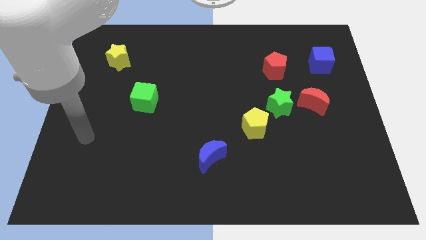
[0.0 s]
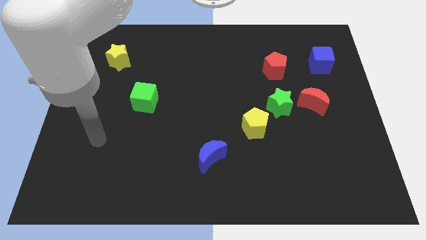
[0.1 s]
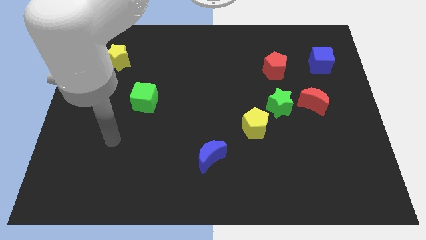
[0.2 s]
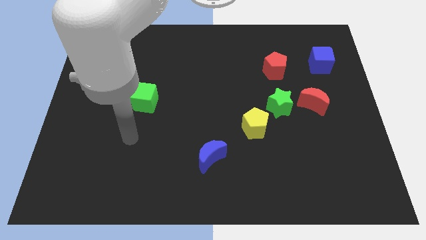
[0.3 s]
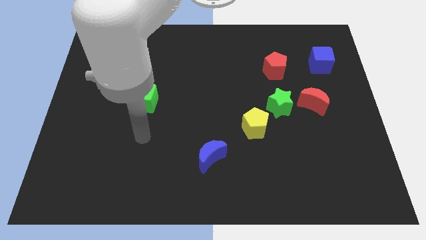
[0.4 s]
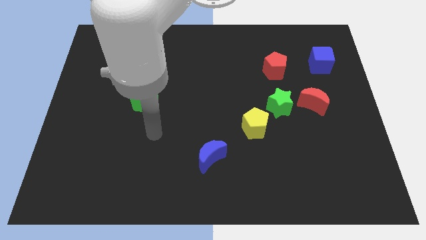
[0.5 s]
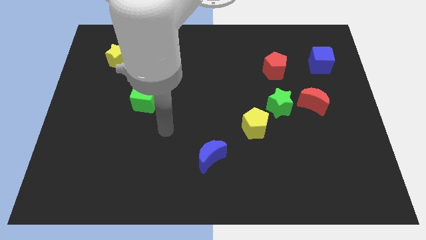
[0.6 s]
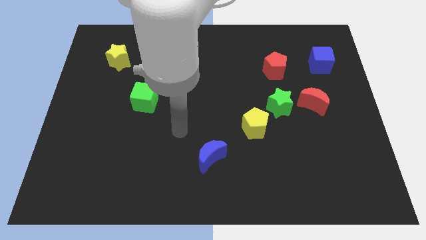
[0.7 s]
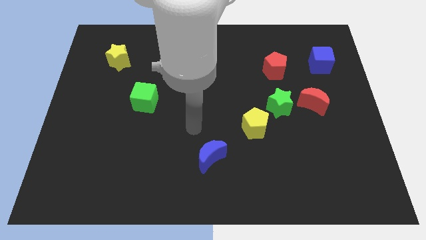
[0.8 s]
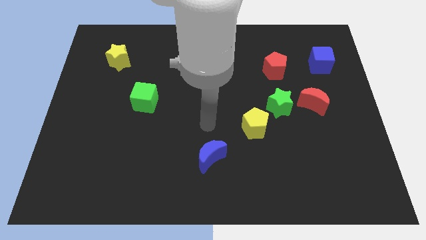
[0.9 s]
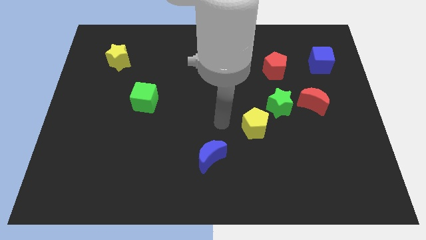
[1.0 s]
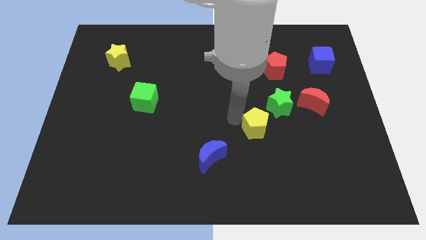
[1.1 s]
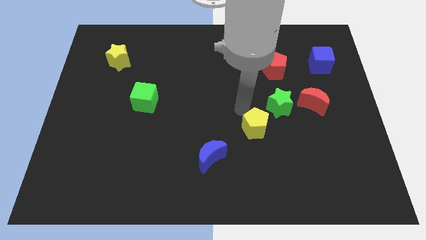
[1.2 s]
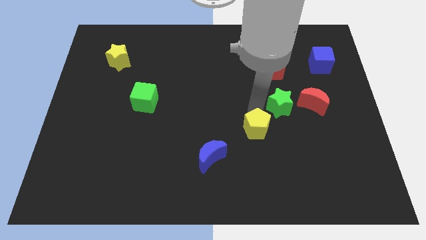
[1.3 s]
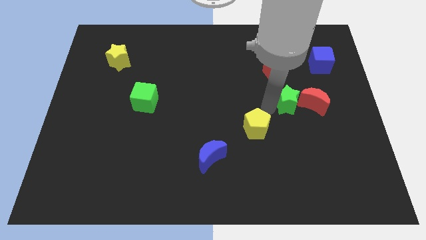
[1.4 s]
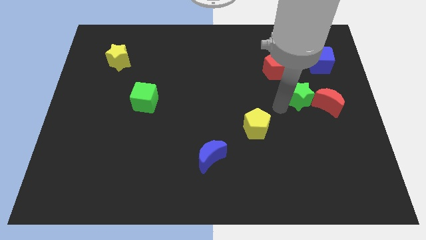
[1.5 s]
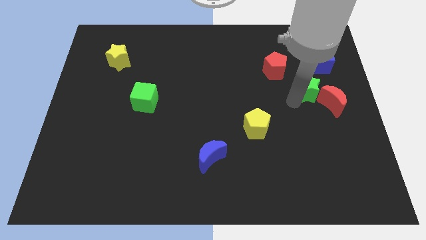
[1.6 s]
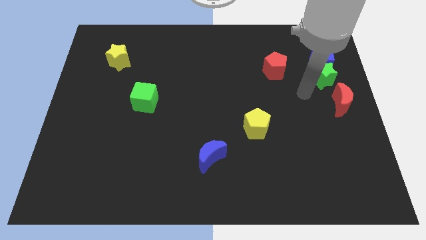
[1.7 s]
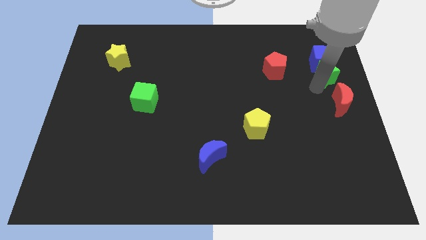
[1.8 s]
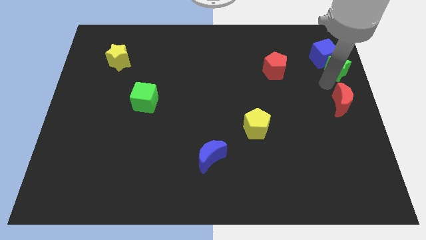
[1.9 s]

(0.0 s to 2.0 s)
move the red moon away from the green star

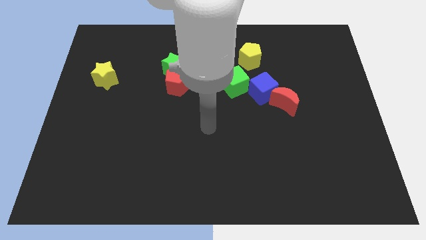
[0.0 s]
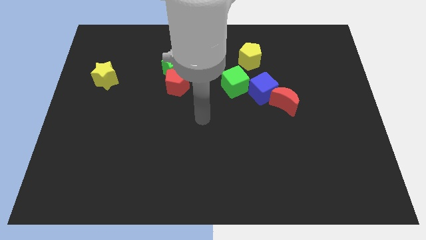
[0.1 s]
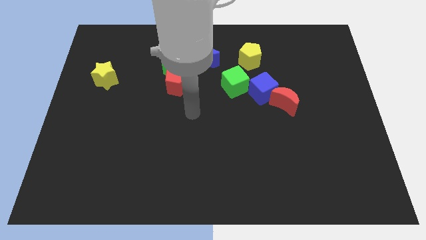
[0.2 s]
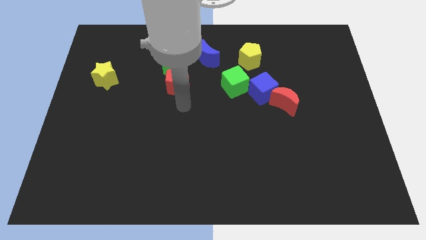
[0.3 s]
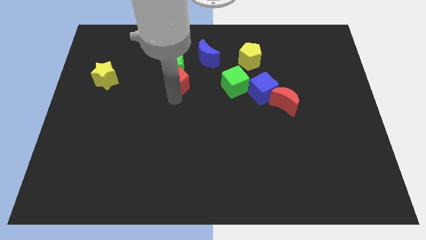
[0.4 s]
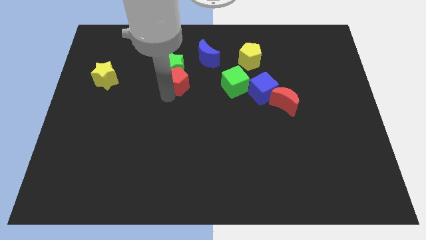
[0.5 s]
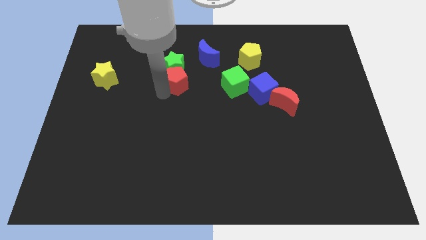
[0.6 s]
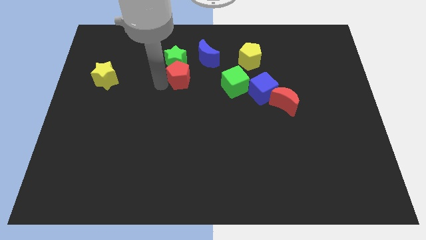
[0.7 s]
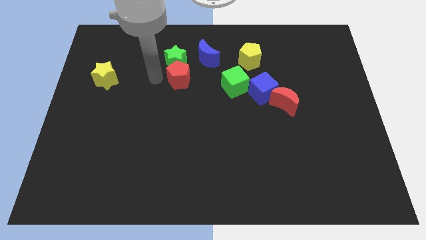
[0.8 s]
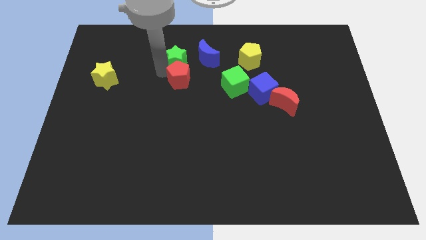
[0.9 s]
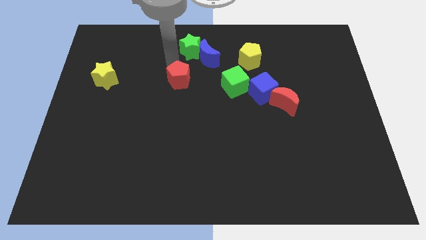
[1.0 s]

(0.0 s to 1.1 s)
pull the red pentagon apart from the green star

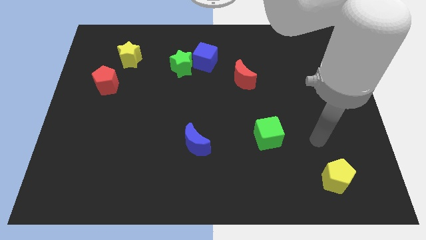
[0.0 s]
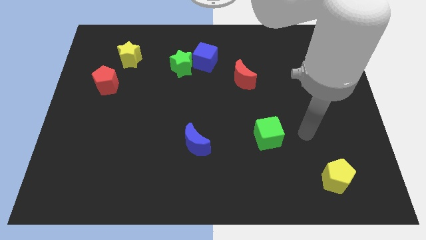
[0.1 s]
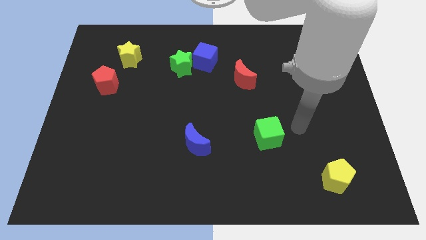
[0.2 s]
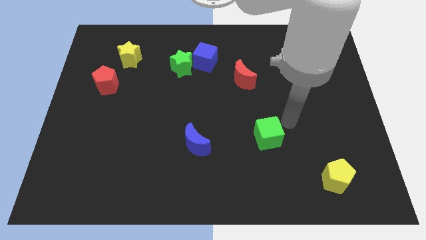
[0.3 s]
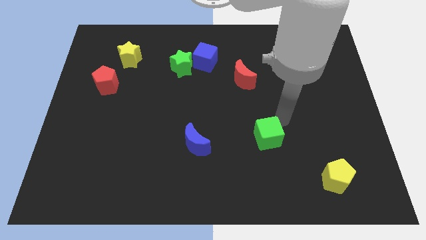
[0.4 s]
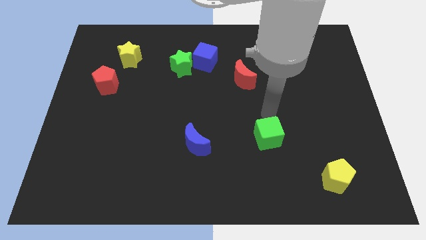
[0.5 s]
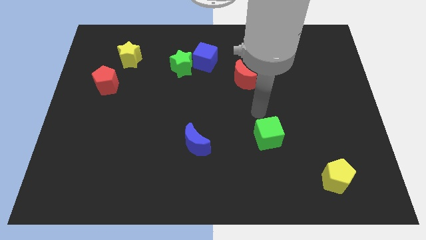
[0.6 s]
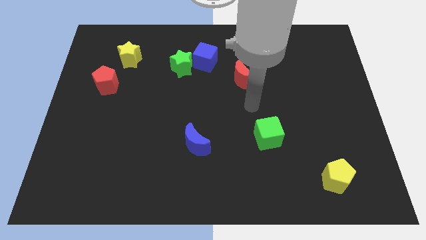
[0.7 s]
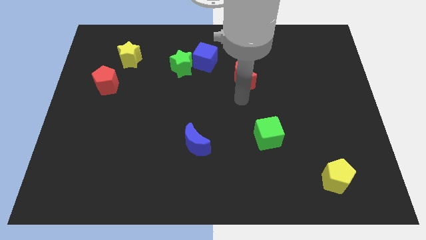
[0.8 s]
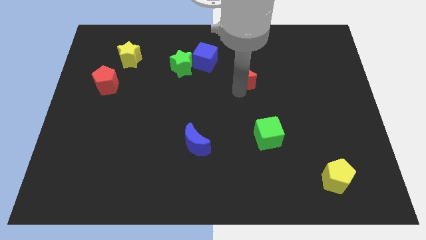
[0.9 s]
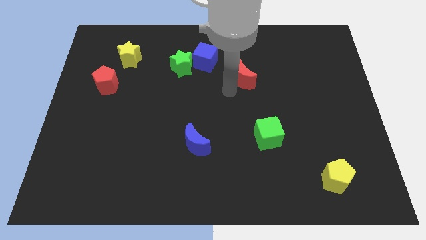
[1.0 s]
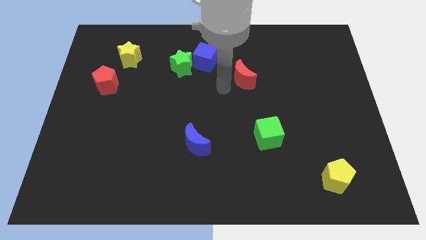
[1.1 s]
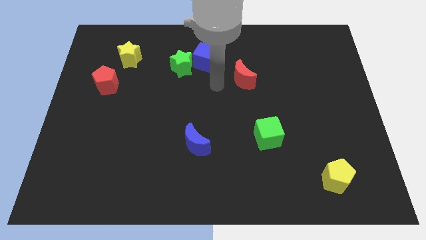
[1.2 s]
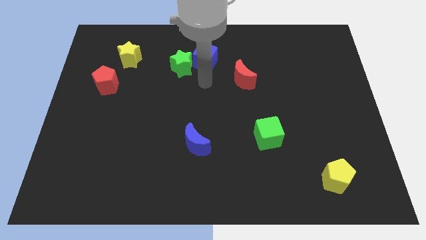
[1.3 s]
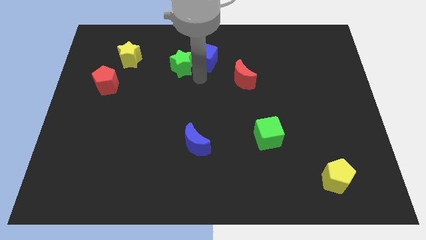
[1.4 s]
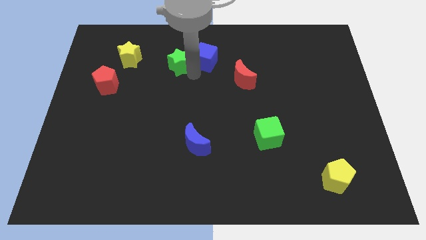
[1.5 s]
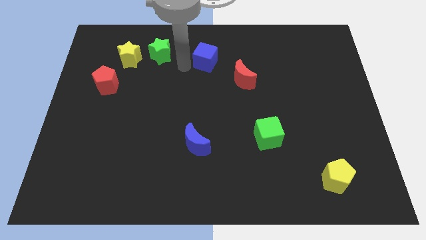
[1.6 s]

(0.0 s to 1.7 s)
pull the blue cube apart from the green star

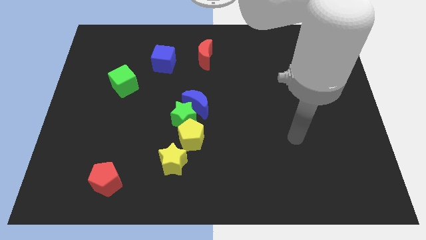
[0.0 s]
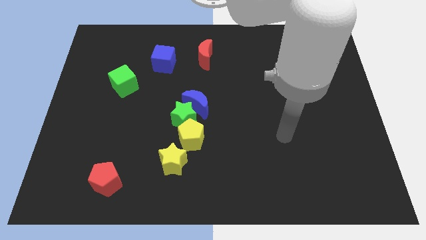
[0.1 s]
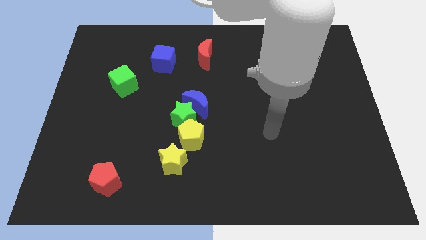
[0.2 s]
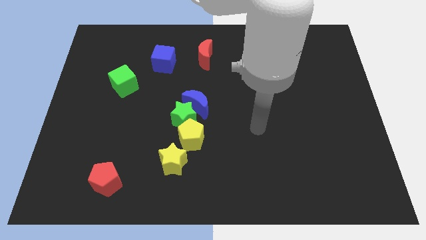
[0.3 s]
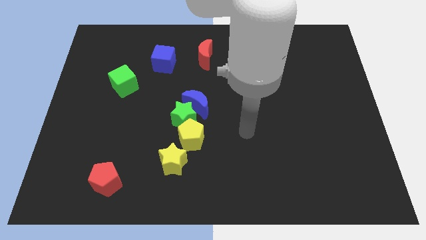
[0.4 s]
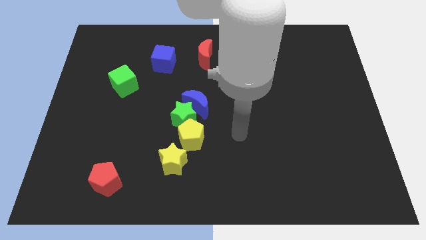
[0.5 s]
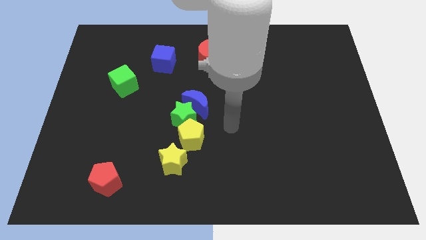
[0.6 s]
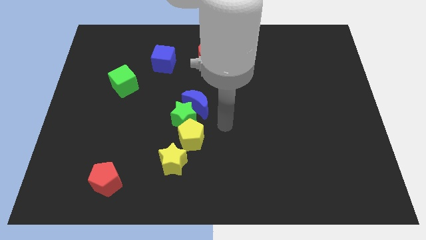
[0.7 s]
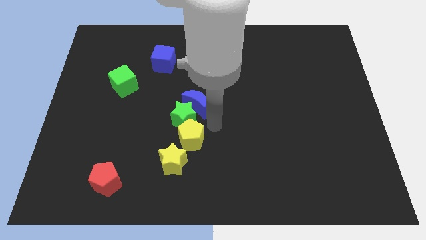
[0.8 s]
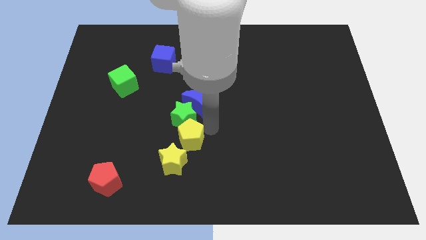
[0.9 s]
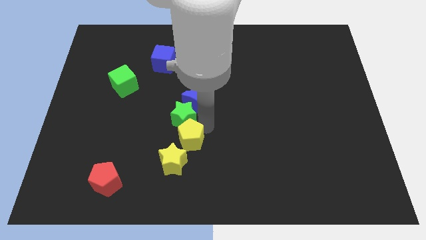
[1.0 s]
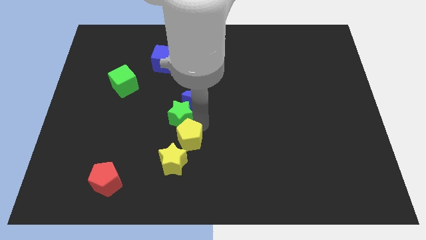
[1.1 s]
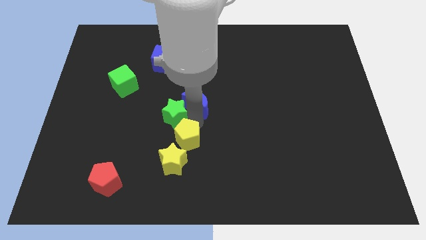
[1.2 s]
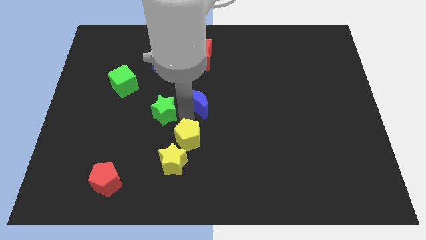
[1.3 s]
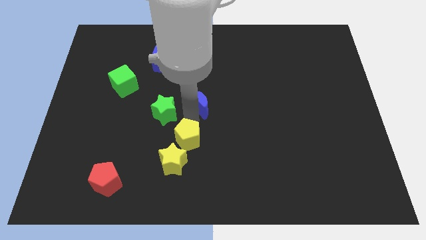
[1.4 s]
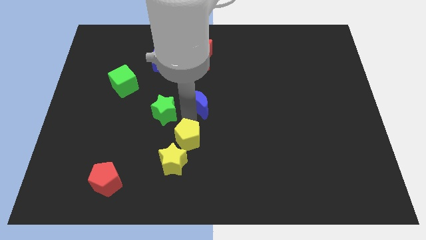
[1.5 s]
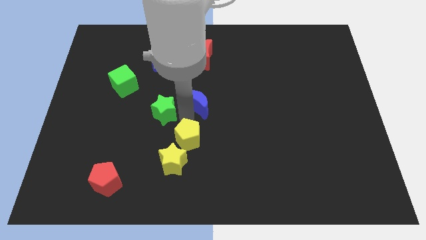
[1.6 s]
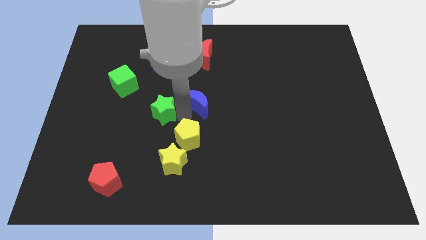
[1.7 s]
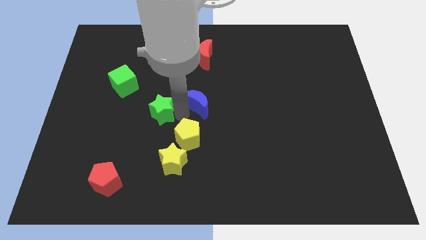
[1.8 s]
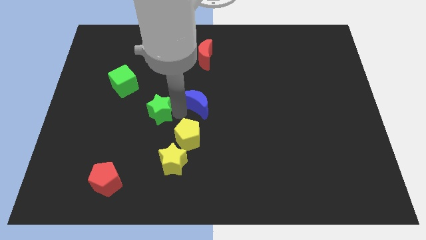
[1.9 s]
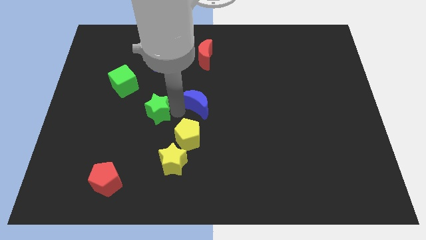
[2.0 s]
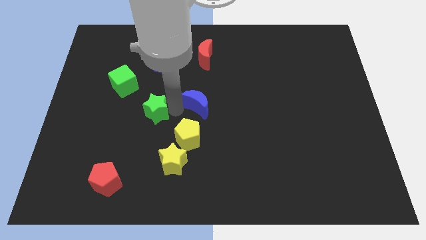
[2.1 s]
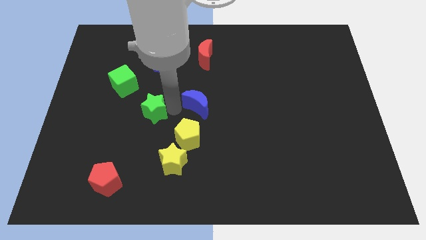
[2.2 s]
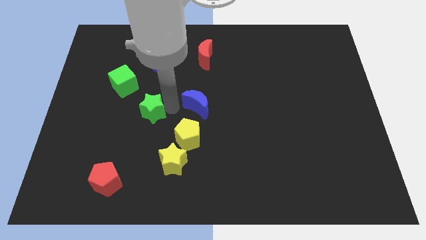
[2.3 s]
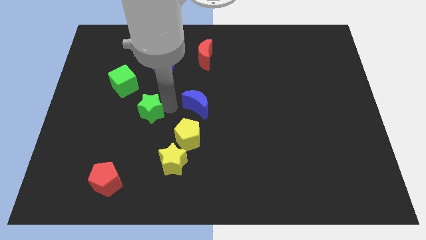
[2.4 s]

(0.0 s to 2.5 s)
move the green star away from the blue moon and yellow pentagon

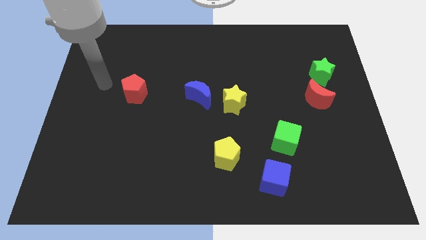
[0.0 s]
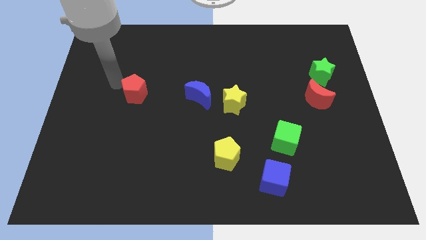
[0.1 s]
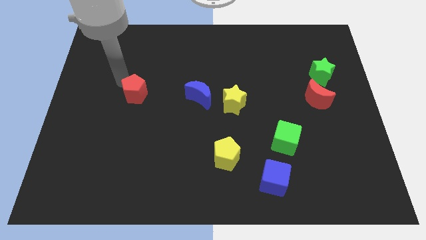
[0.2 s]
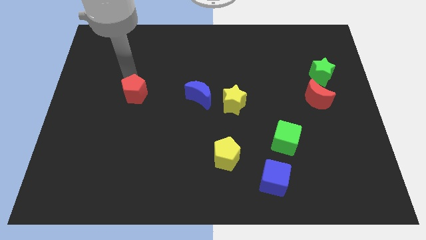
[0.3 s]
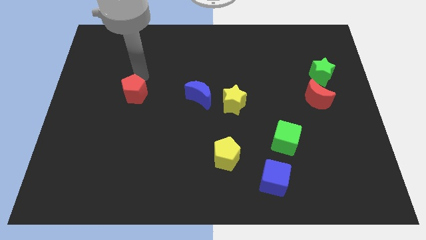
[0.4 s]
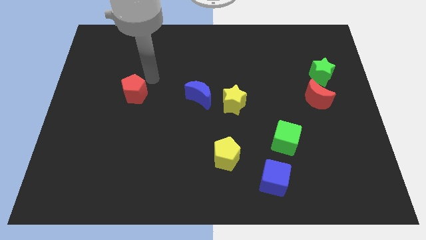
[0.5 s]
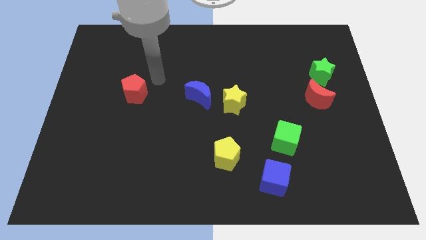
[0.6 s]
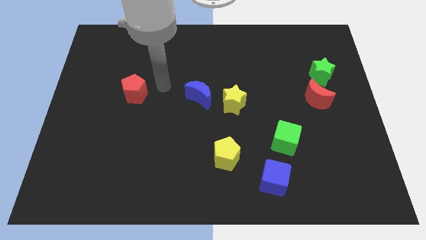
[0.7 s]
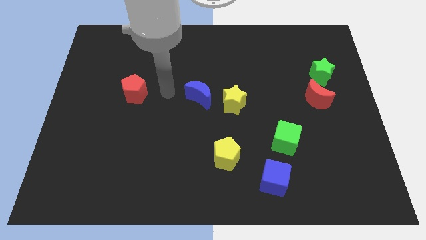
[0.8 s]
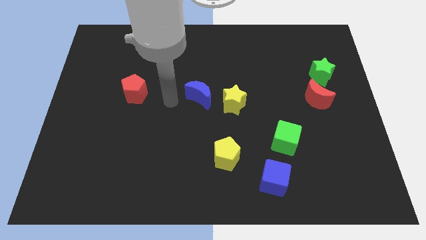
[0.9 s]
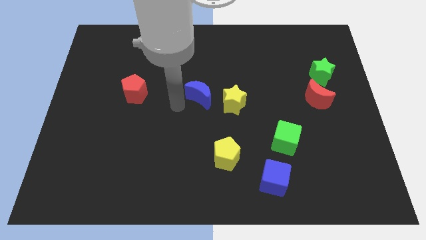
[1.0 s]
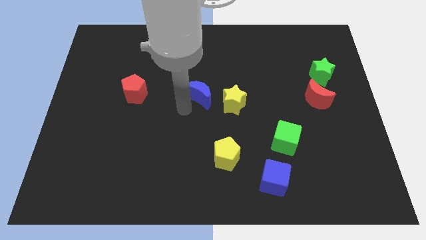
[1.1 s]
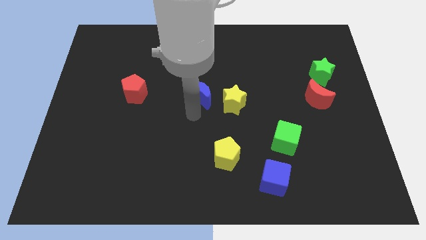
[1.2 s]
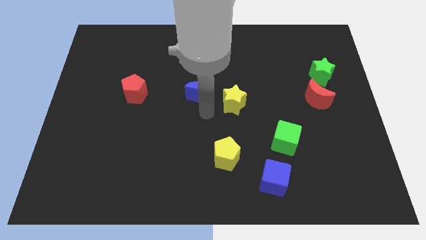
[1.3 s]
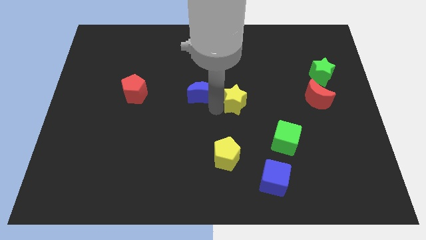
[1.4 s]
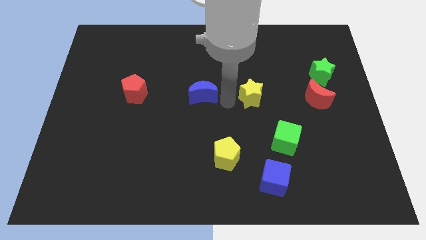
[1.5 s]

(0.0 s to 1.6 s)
move the blue moon away from the yellow star

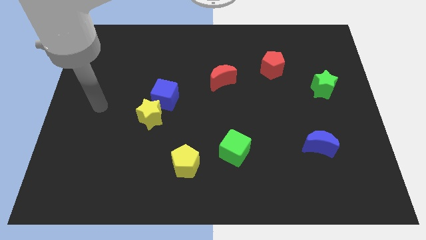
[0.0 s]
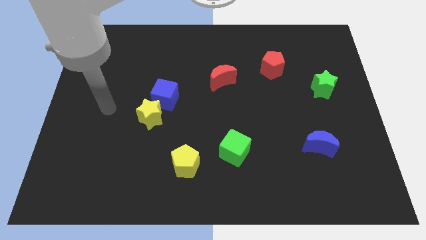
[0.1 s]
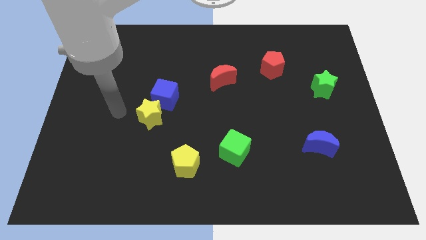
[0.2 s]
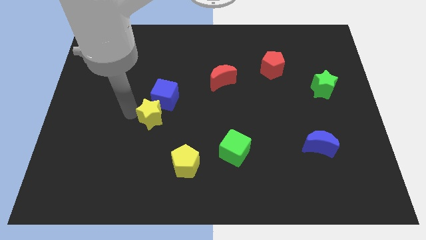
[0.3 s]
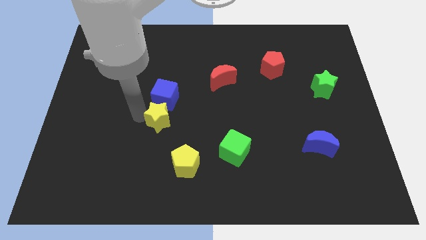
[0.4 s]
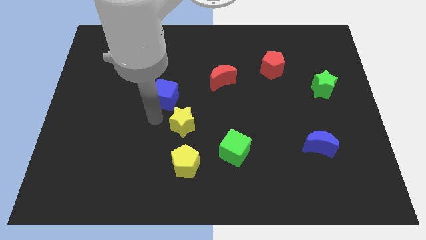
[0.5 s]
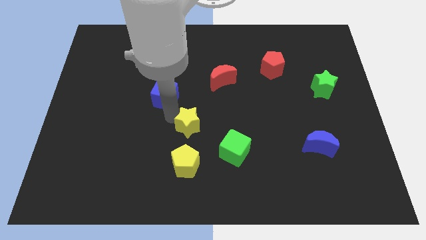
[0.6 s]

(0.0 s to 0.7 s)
separate the blue cube from the yellow star
